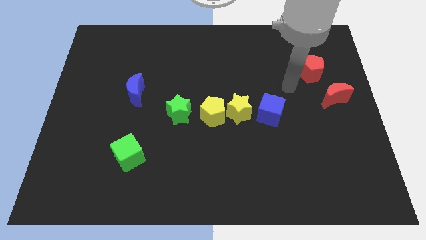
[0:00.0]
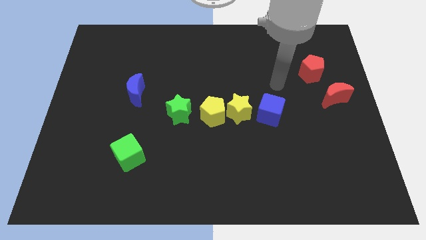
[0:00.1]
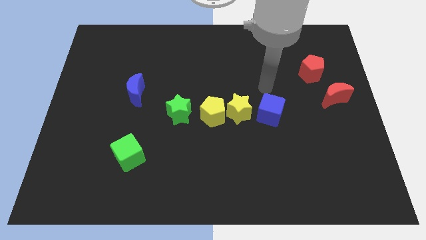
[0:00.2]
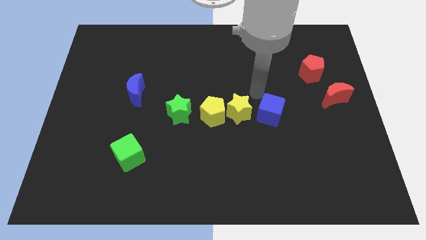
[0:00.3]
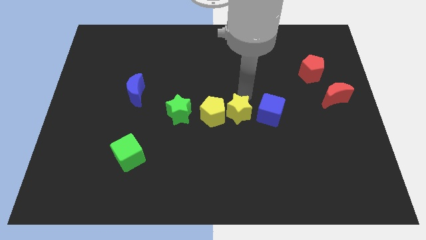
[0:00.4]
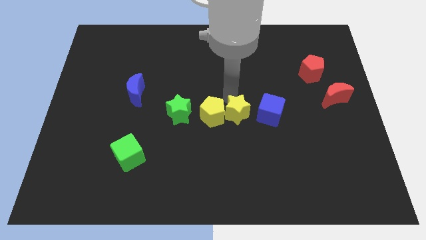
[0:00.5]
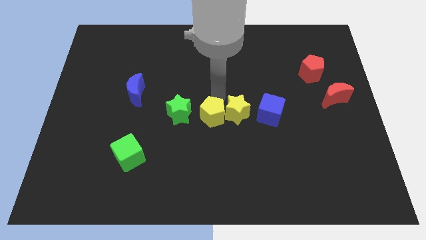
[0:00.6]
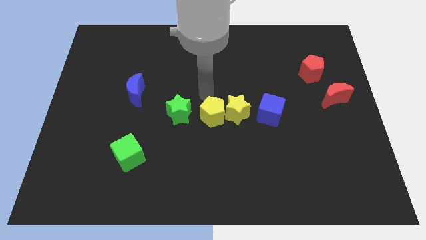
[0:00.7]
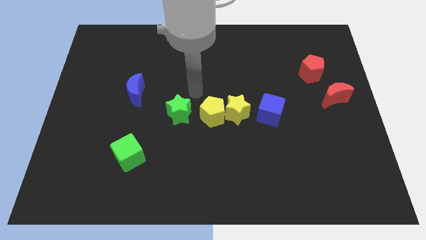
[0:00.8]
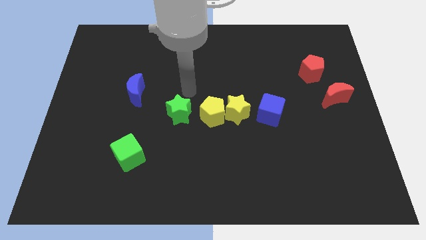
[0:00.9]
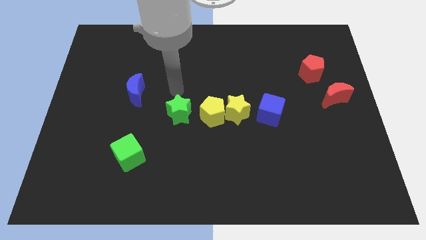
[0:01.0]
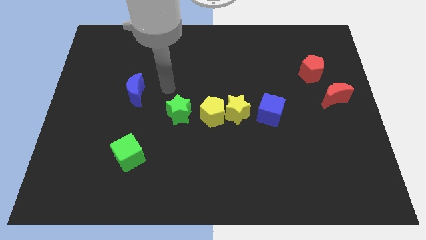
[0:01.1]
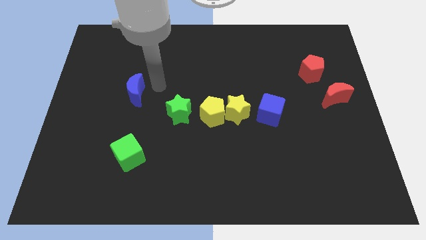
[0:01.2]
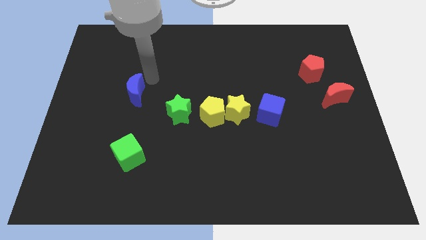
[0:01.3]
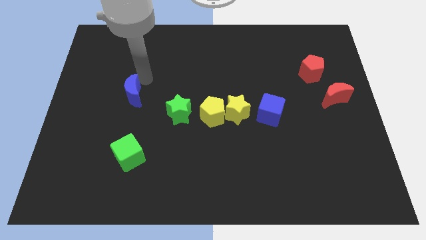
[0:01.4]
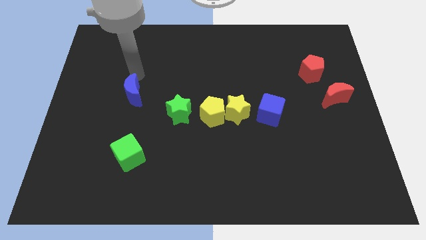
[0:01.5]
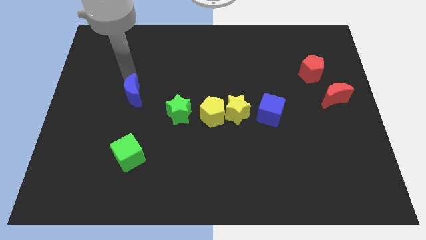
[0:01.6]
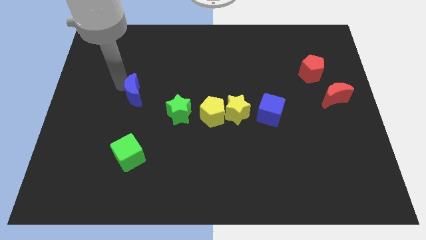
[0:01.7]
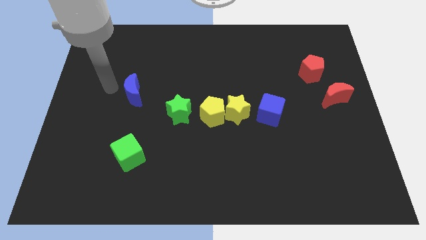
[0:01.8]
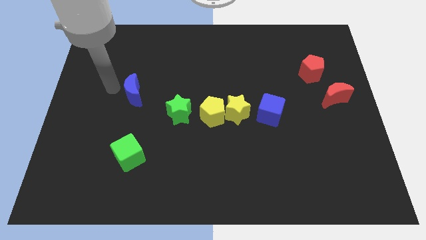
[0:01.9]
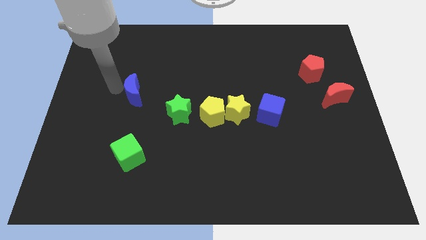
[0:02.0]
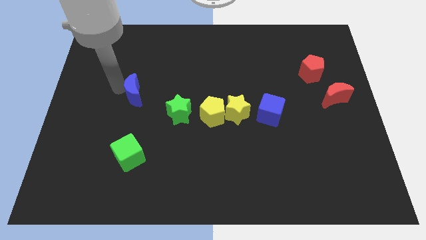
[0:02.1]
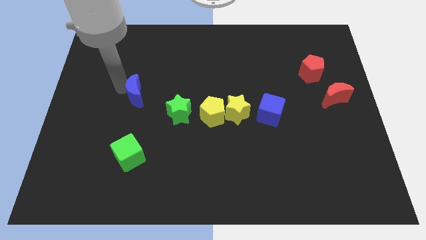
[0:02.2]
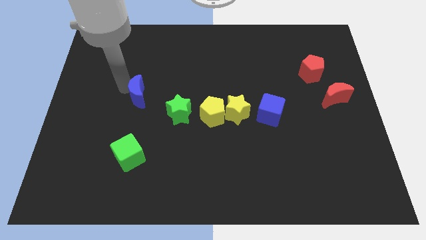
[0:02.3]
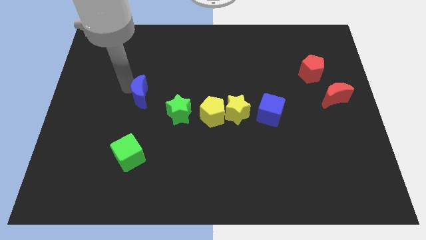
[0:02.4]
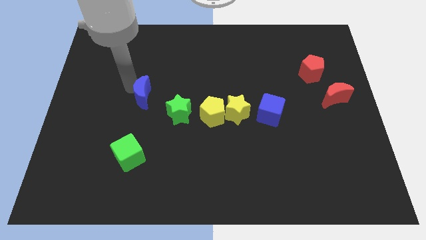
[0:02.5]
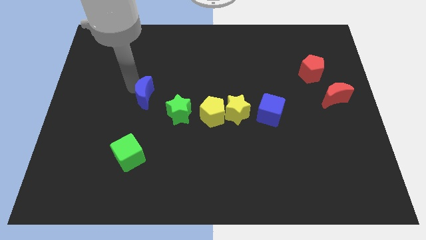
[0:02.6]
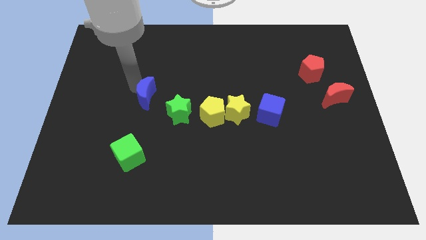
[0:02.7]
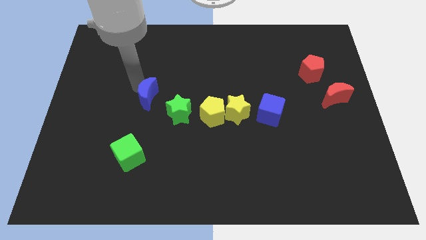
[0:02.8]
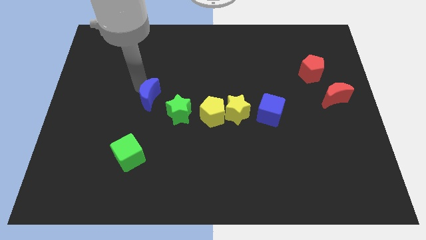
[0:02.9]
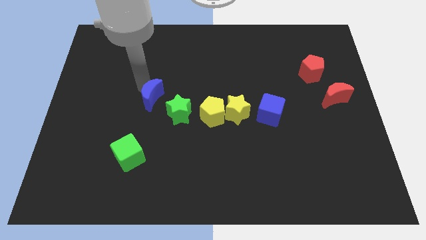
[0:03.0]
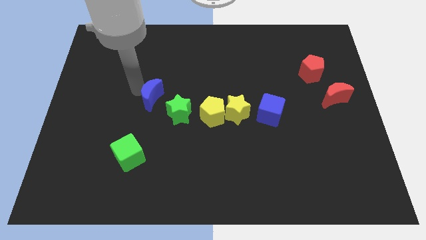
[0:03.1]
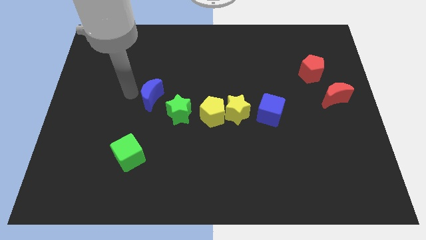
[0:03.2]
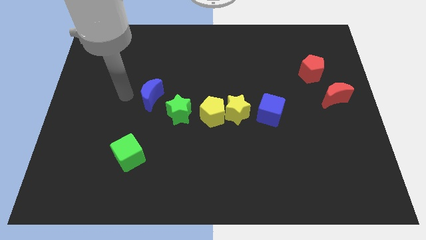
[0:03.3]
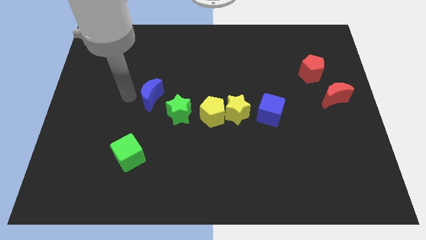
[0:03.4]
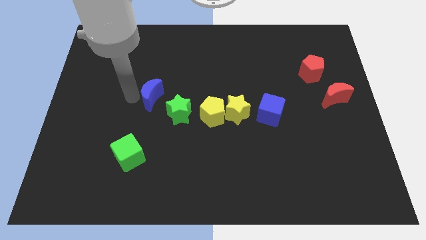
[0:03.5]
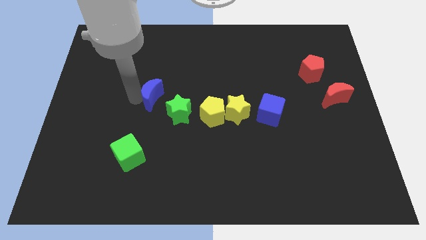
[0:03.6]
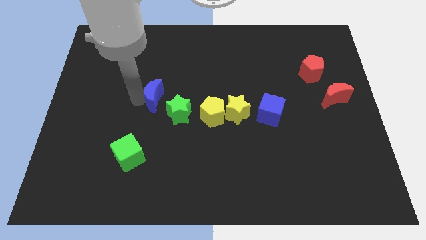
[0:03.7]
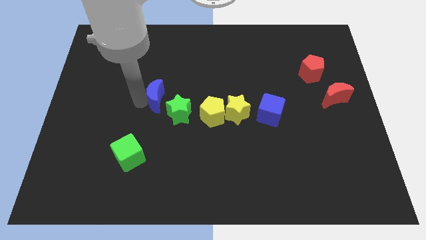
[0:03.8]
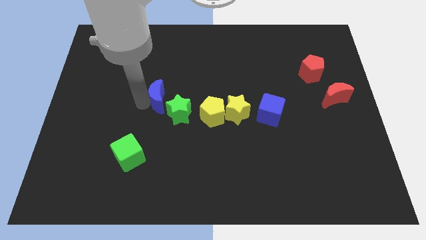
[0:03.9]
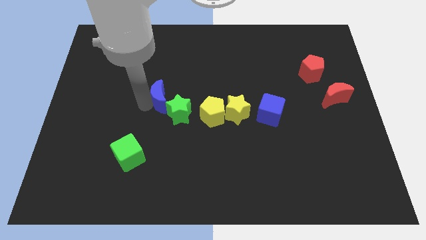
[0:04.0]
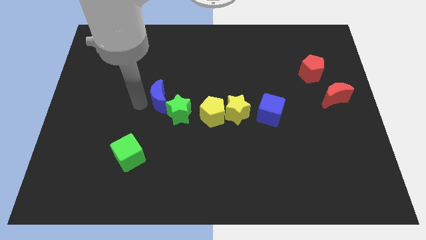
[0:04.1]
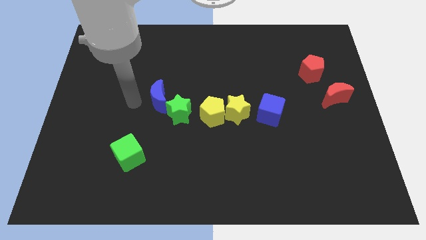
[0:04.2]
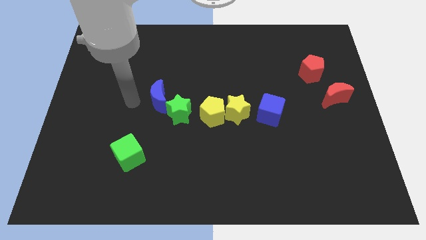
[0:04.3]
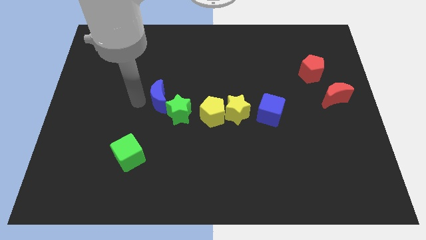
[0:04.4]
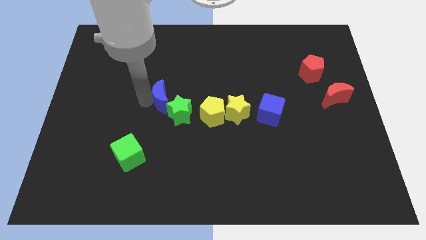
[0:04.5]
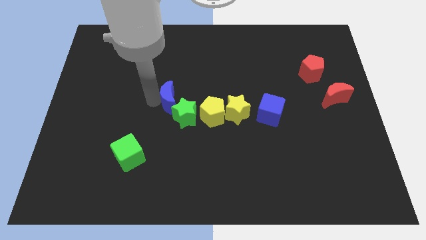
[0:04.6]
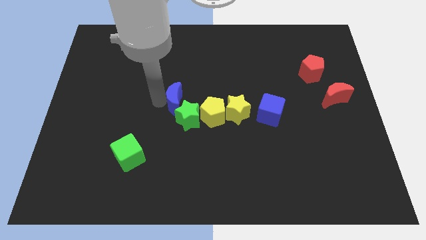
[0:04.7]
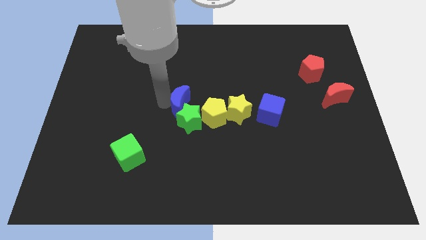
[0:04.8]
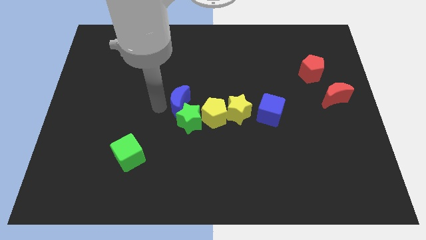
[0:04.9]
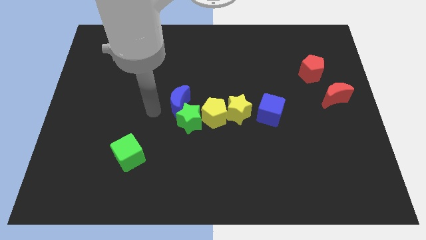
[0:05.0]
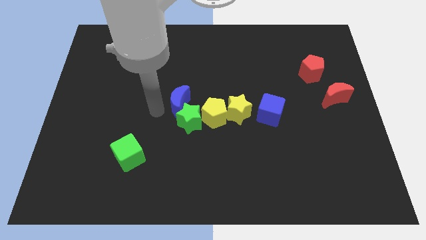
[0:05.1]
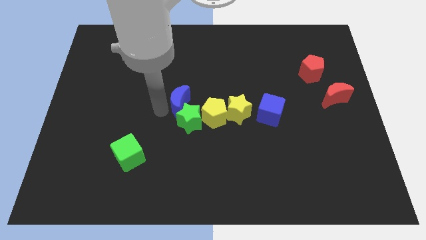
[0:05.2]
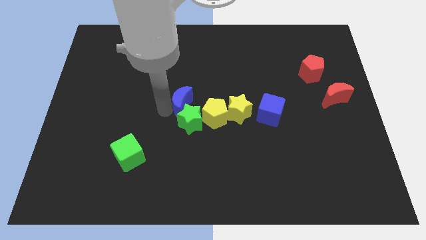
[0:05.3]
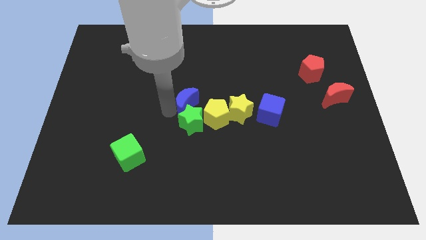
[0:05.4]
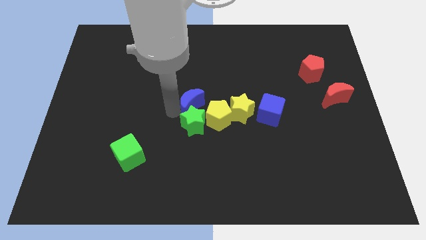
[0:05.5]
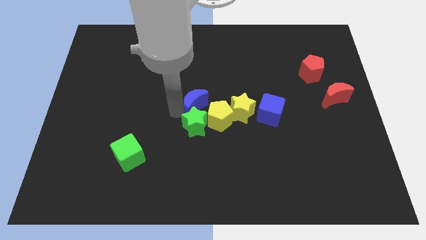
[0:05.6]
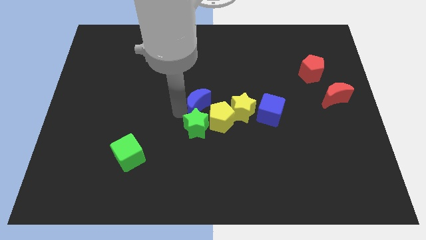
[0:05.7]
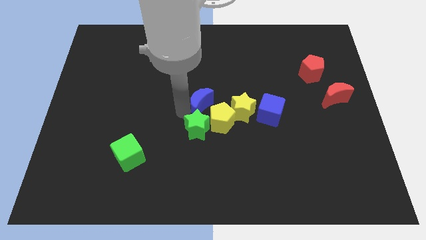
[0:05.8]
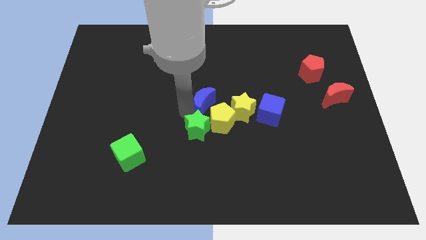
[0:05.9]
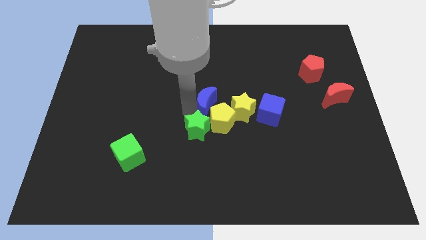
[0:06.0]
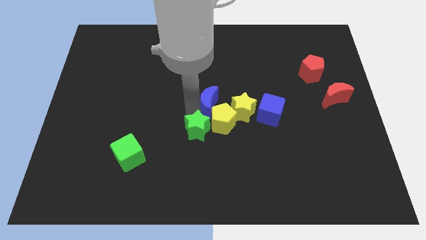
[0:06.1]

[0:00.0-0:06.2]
push the blue moon diagonally up and to the left of the yellow star

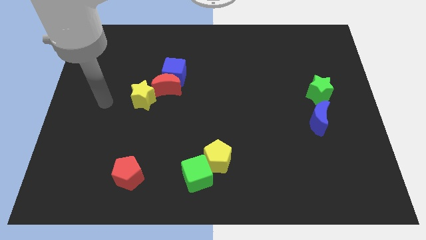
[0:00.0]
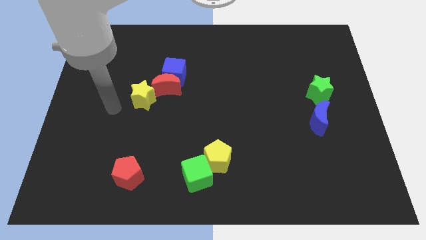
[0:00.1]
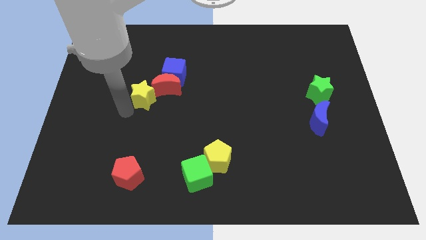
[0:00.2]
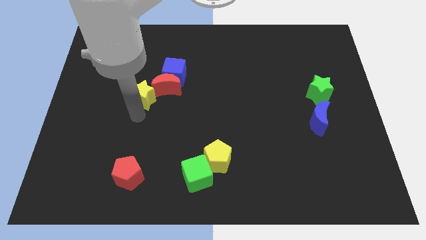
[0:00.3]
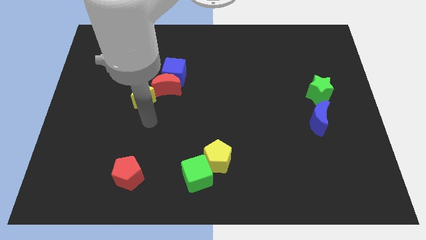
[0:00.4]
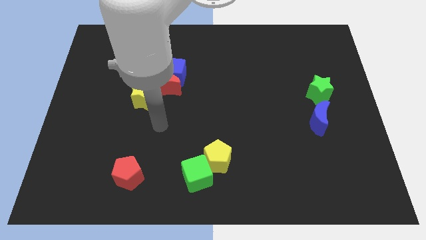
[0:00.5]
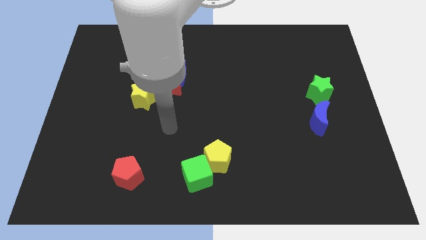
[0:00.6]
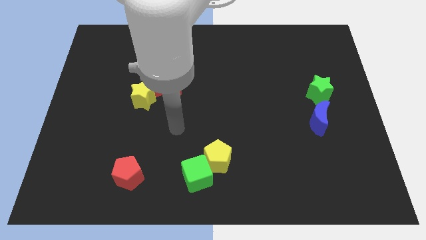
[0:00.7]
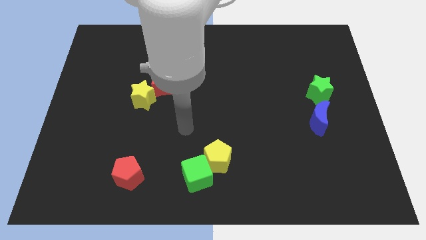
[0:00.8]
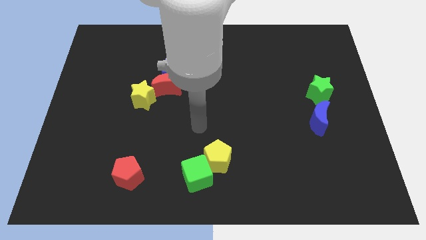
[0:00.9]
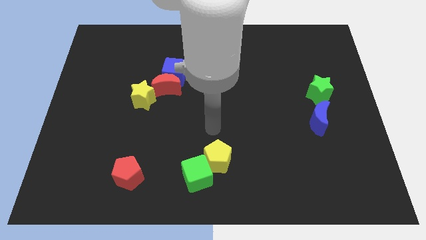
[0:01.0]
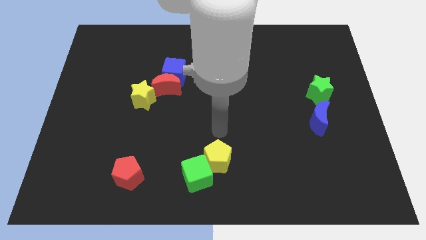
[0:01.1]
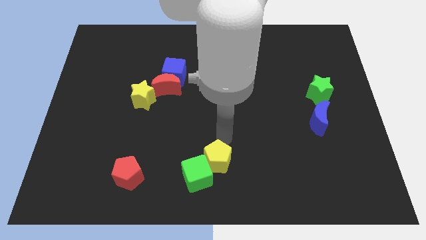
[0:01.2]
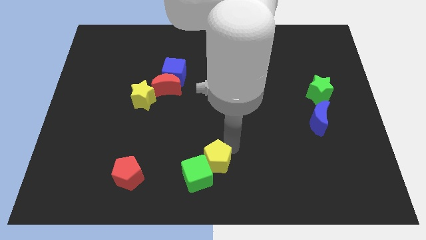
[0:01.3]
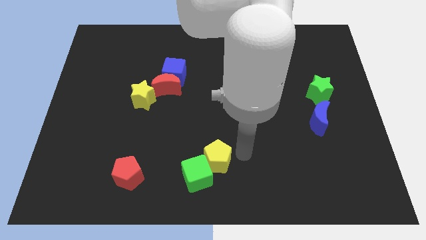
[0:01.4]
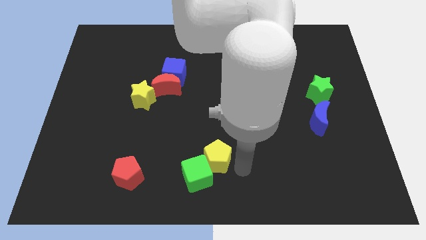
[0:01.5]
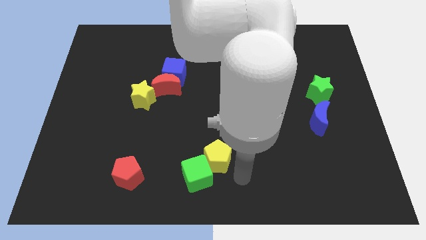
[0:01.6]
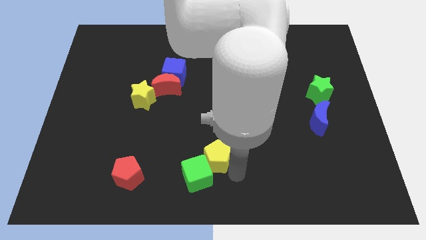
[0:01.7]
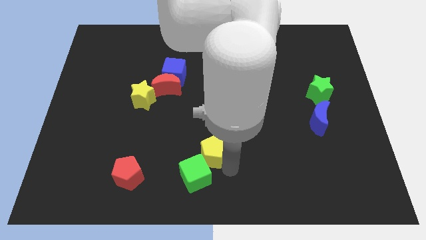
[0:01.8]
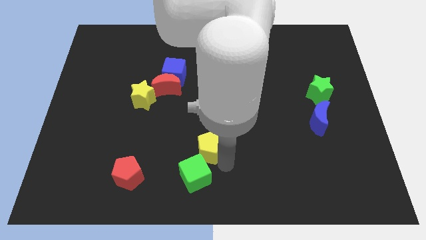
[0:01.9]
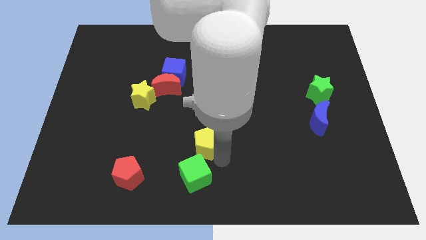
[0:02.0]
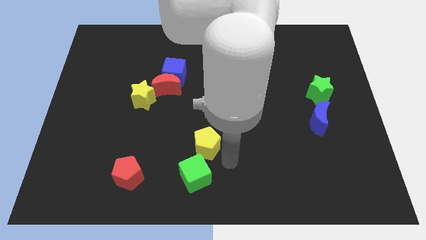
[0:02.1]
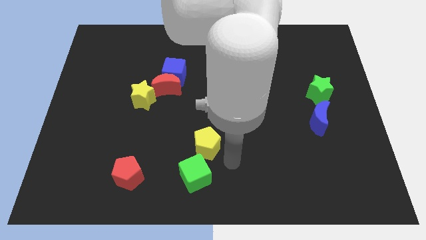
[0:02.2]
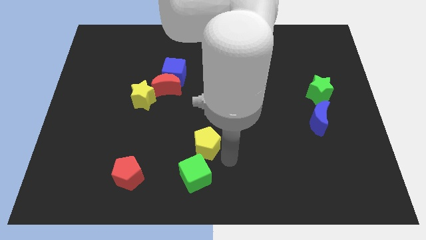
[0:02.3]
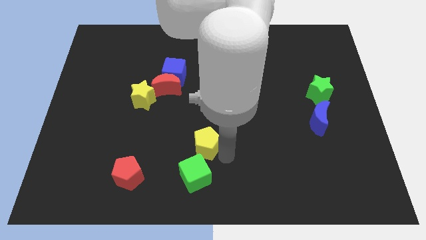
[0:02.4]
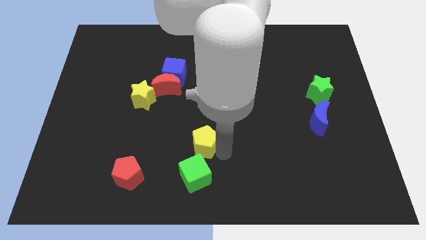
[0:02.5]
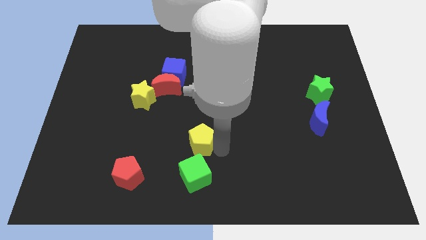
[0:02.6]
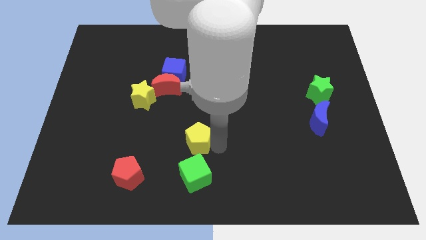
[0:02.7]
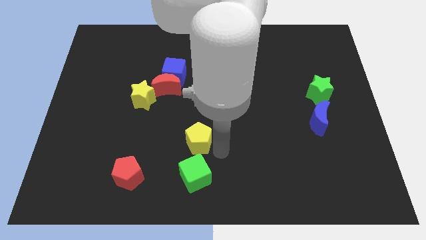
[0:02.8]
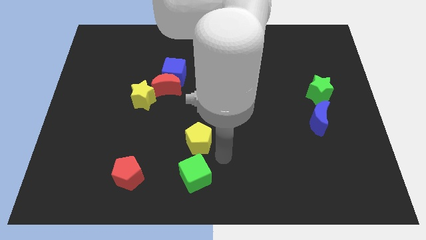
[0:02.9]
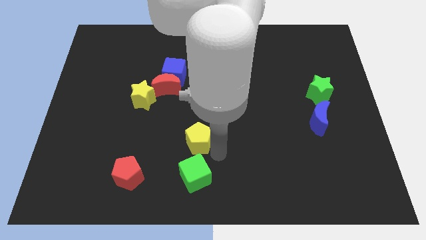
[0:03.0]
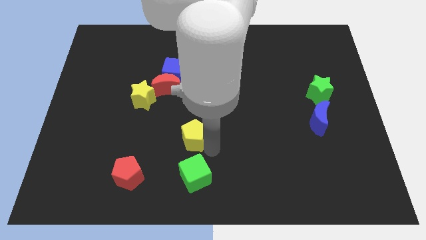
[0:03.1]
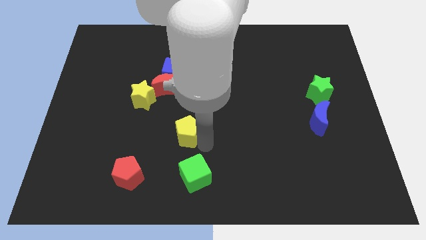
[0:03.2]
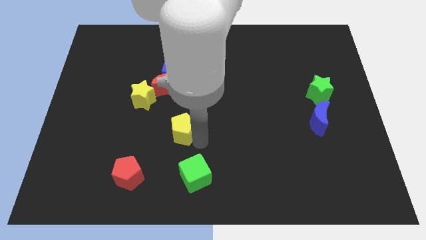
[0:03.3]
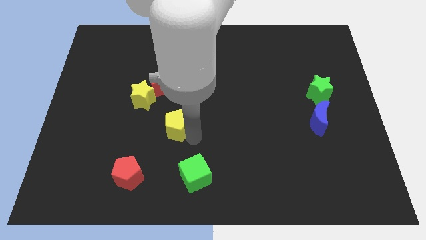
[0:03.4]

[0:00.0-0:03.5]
move the yellow pentagon diagonally down and to the right of the yellow star
